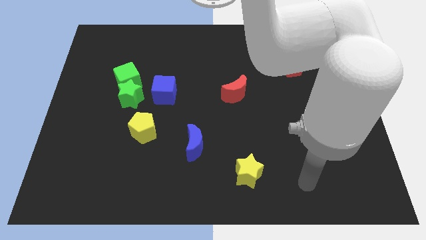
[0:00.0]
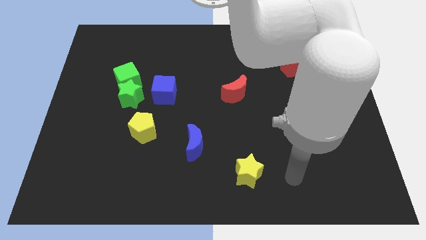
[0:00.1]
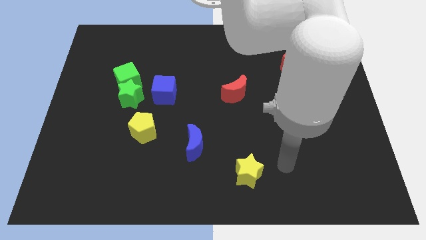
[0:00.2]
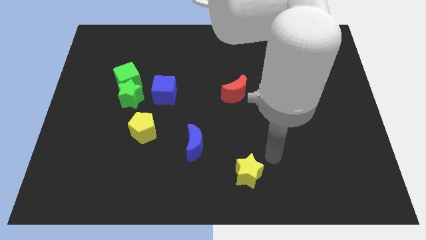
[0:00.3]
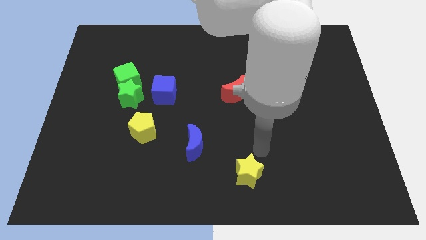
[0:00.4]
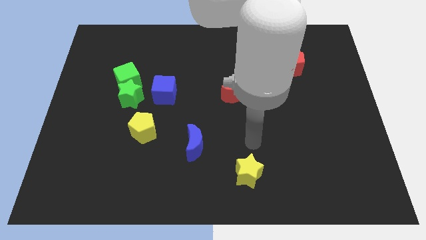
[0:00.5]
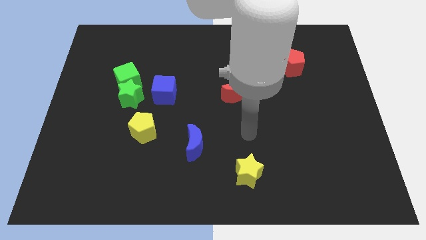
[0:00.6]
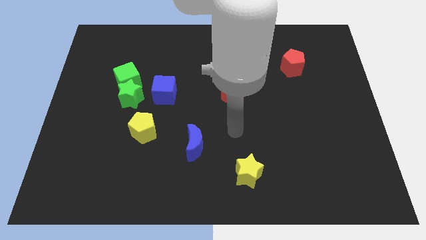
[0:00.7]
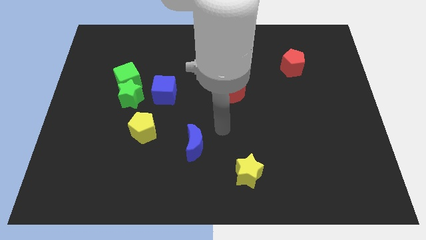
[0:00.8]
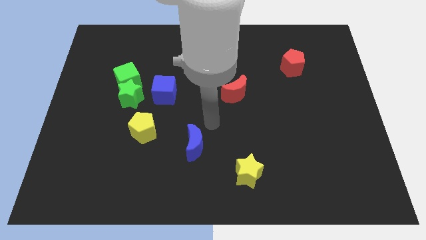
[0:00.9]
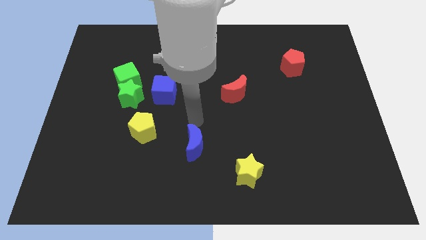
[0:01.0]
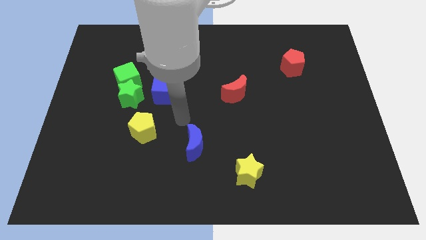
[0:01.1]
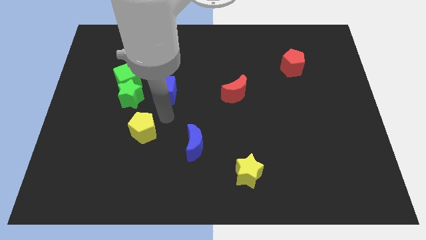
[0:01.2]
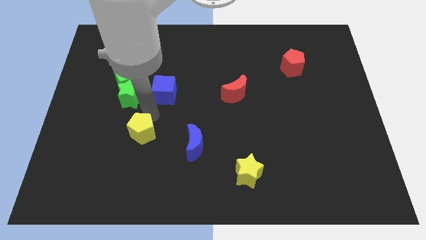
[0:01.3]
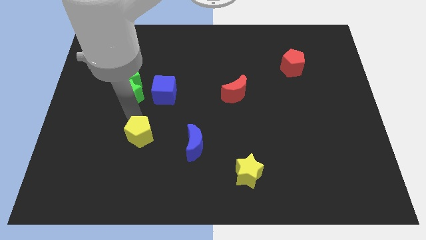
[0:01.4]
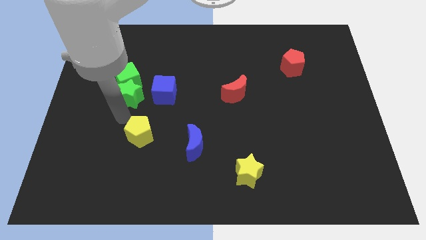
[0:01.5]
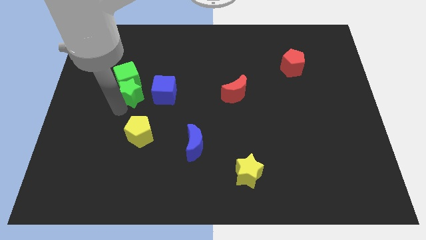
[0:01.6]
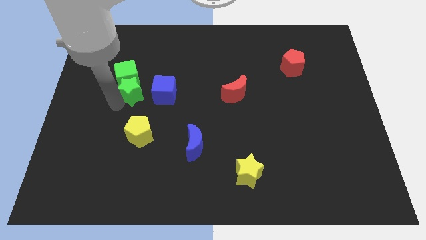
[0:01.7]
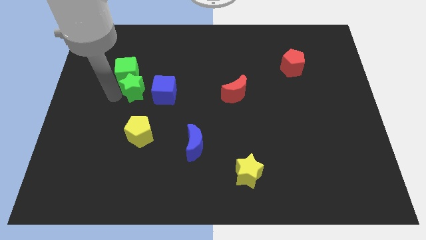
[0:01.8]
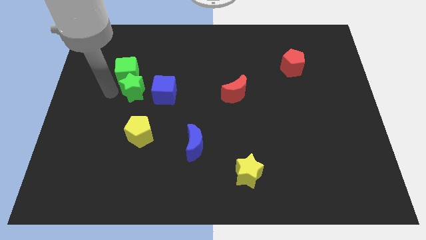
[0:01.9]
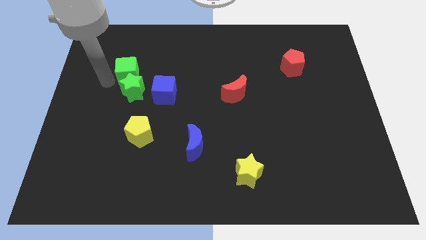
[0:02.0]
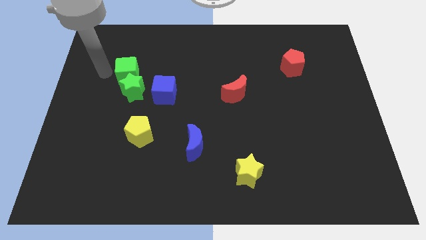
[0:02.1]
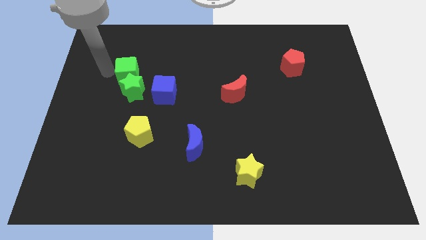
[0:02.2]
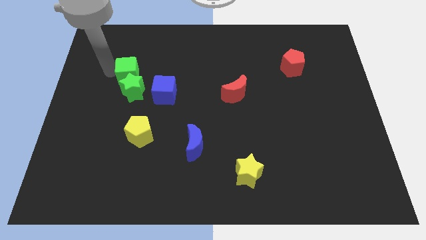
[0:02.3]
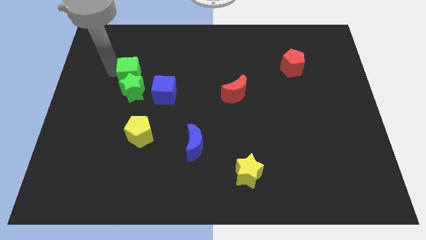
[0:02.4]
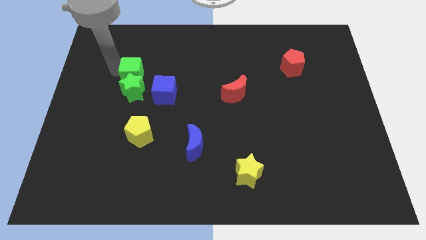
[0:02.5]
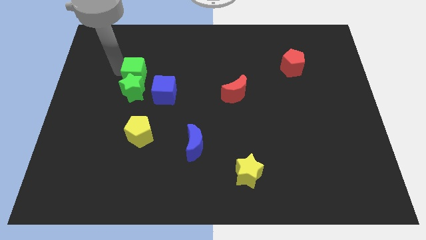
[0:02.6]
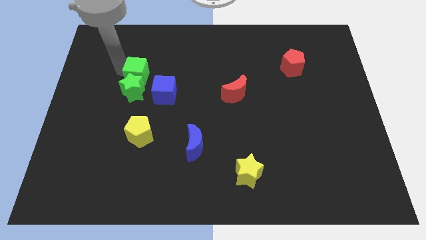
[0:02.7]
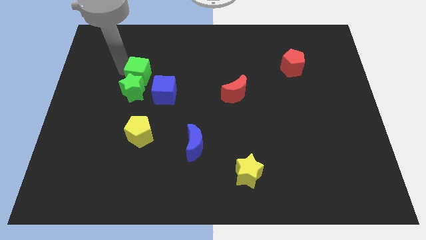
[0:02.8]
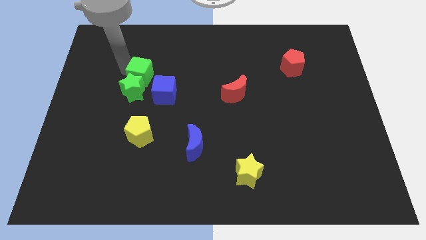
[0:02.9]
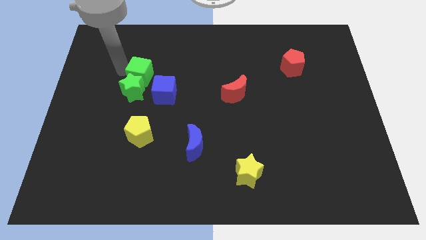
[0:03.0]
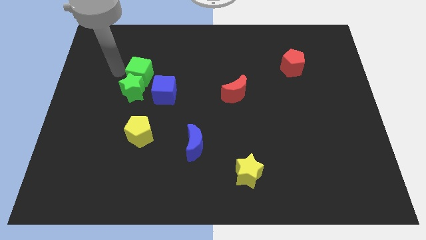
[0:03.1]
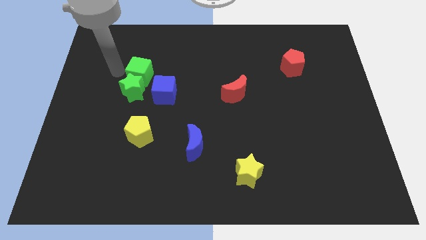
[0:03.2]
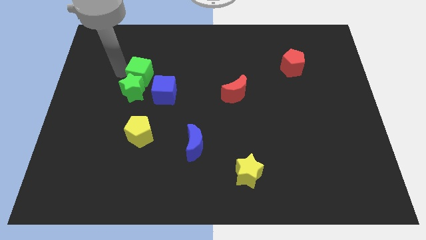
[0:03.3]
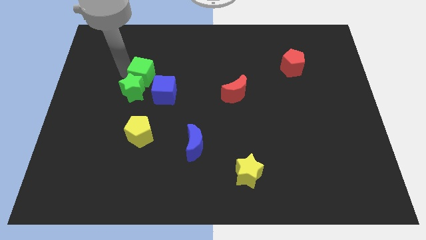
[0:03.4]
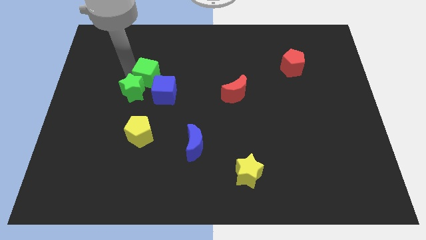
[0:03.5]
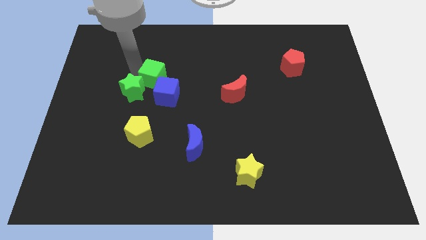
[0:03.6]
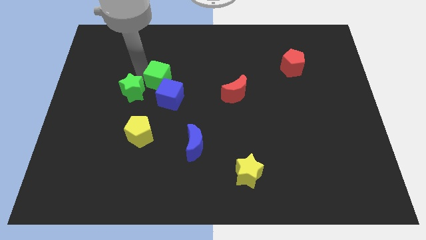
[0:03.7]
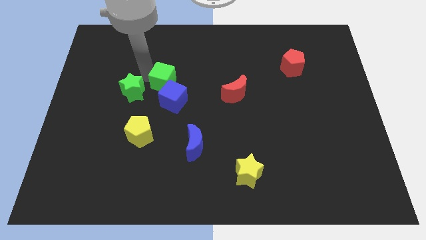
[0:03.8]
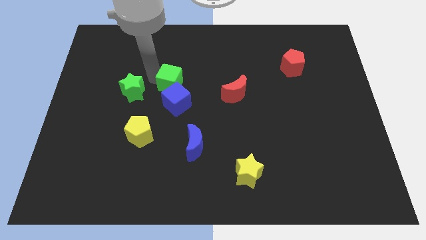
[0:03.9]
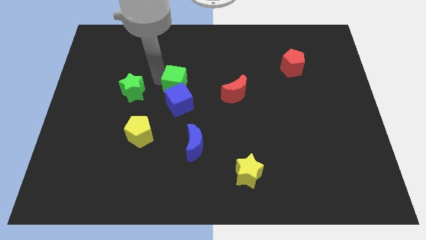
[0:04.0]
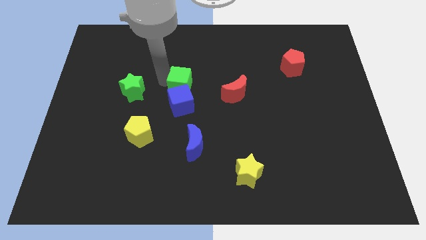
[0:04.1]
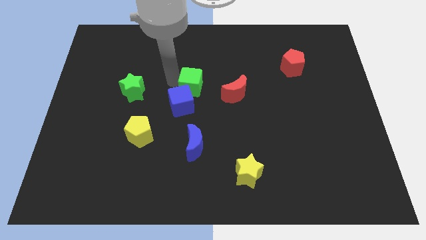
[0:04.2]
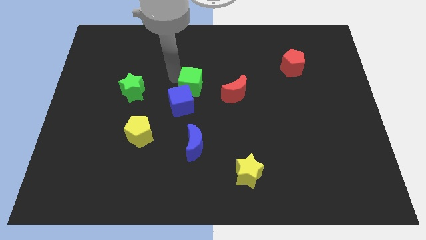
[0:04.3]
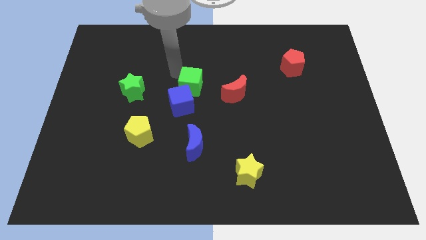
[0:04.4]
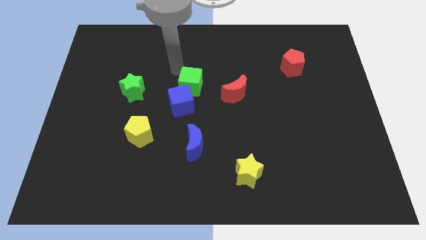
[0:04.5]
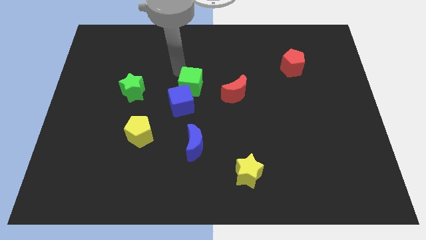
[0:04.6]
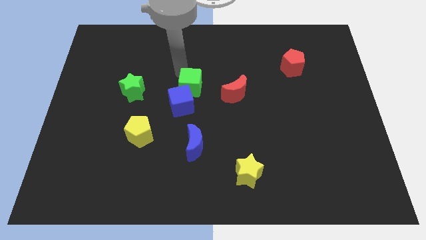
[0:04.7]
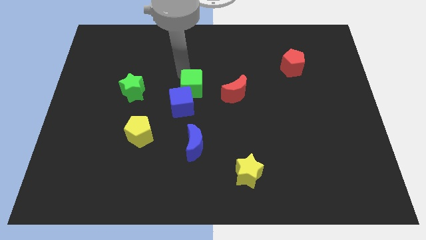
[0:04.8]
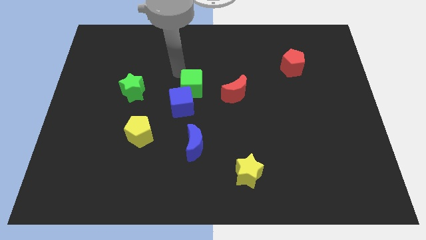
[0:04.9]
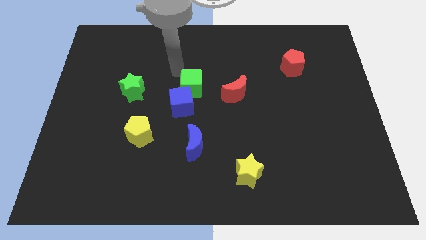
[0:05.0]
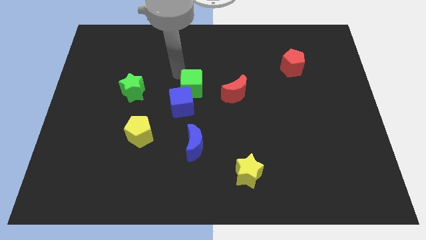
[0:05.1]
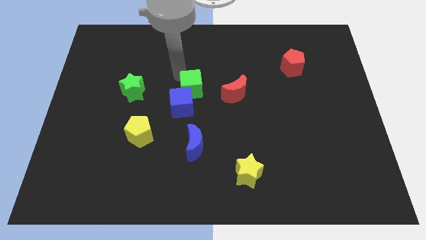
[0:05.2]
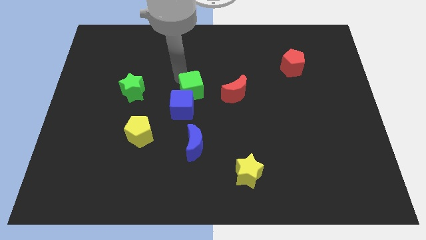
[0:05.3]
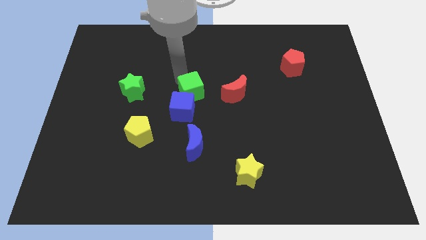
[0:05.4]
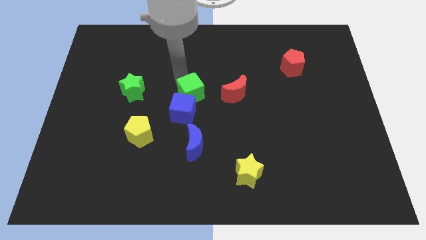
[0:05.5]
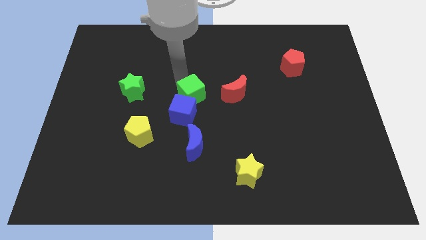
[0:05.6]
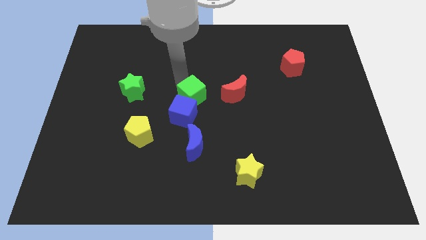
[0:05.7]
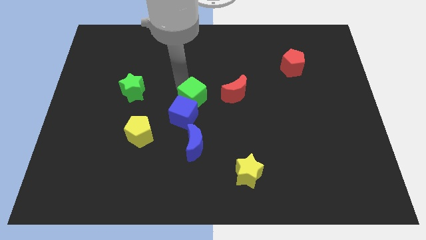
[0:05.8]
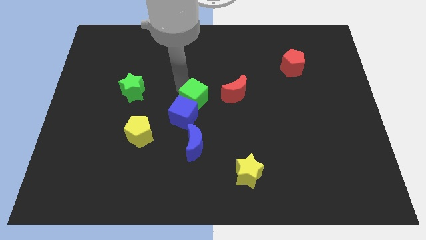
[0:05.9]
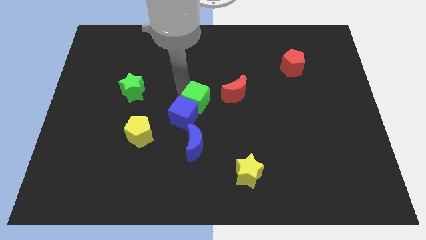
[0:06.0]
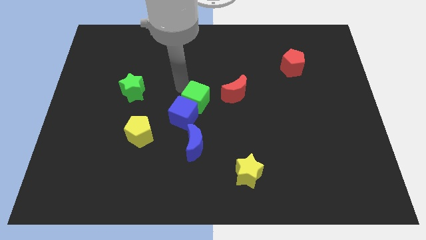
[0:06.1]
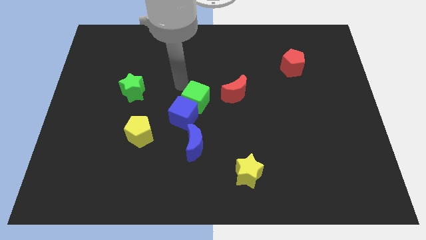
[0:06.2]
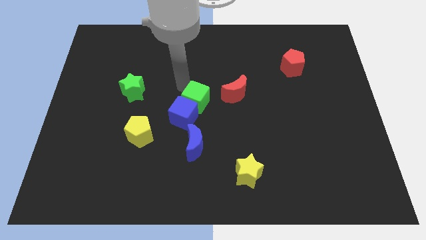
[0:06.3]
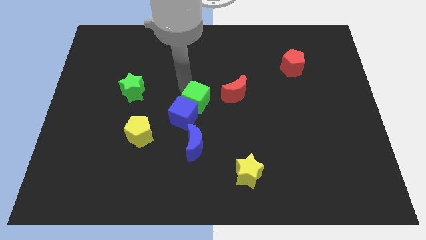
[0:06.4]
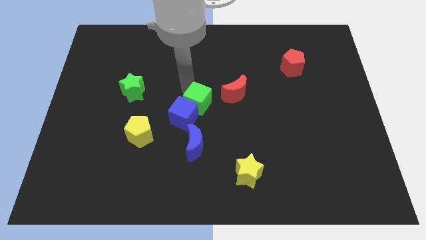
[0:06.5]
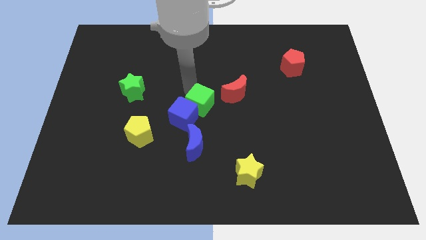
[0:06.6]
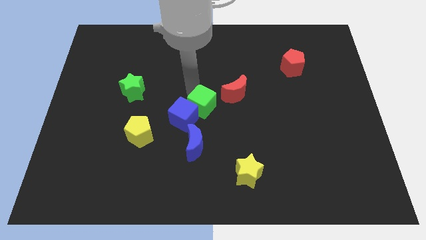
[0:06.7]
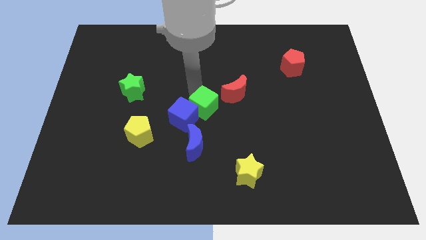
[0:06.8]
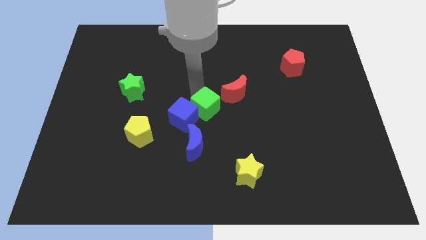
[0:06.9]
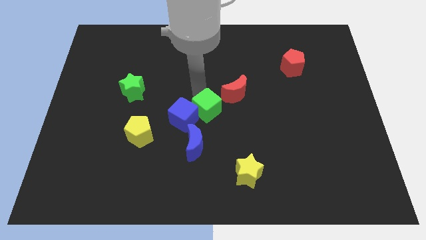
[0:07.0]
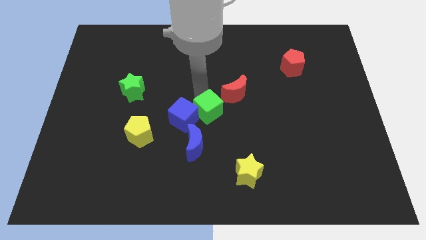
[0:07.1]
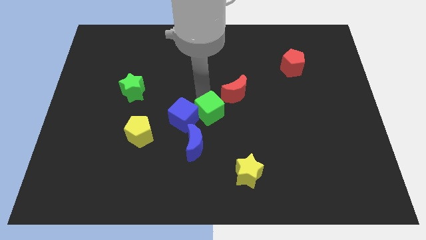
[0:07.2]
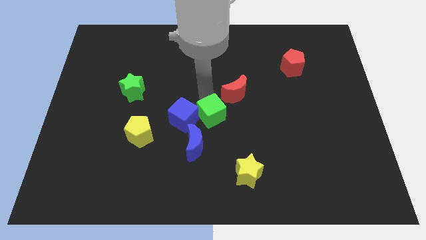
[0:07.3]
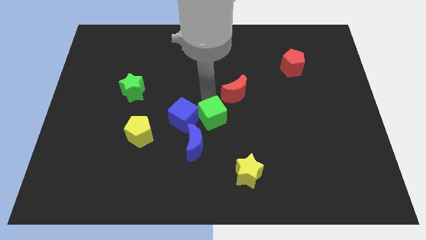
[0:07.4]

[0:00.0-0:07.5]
slide the green cube downwards and right diagonally

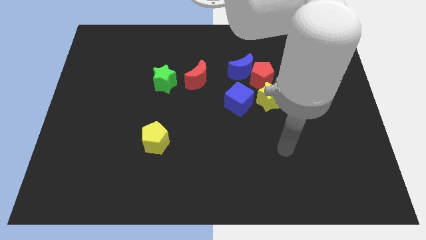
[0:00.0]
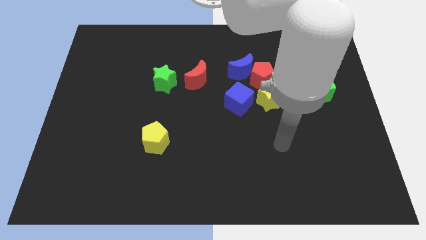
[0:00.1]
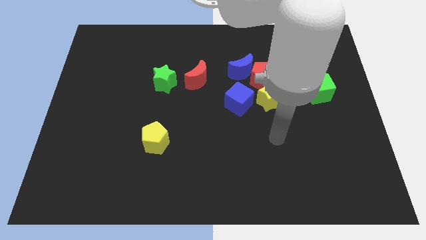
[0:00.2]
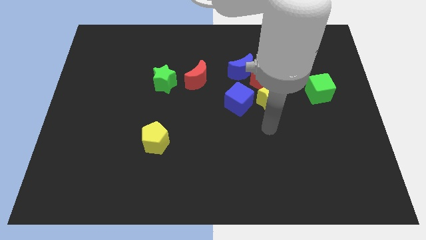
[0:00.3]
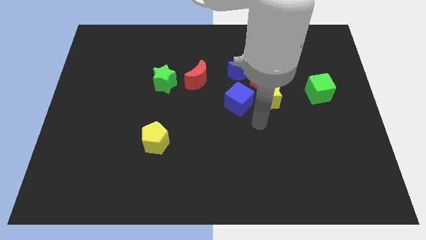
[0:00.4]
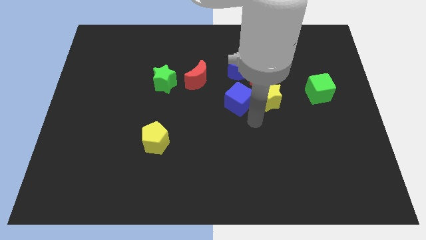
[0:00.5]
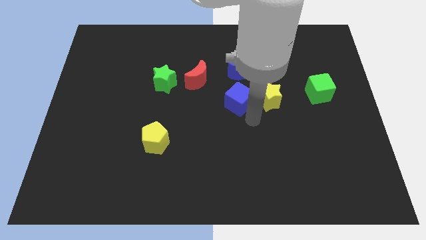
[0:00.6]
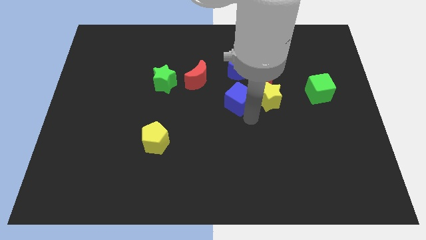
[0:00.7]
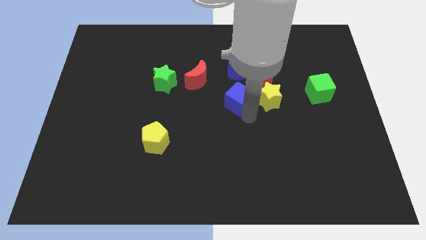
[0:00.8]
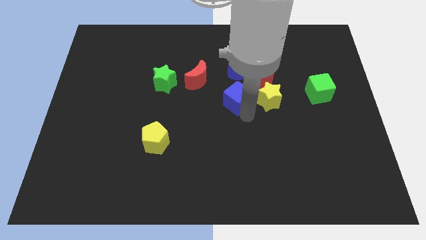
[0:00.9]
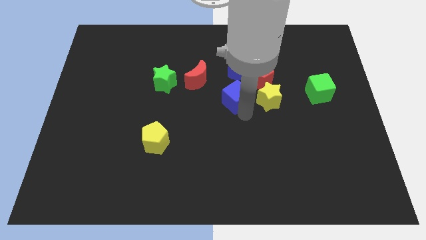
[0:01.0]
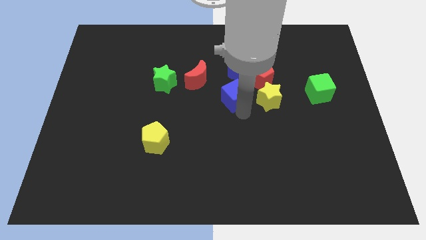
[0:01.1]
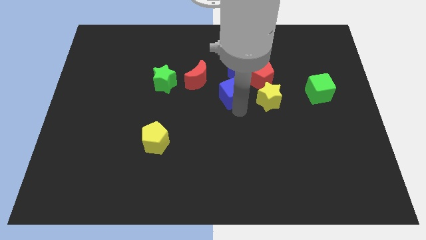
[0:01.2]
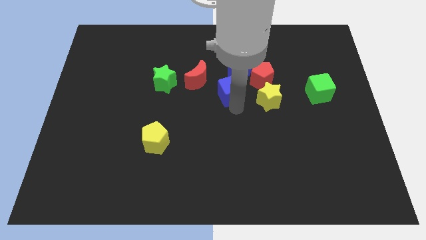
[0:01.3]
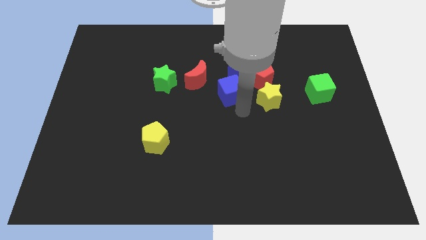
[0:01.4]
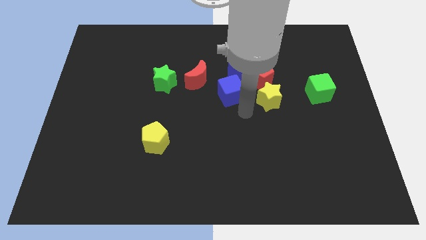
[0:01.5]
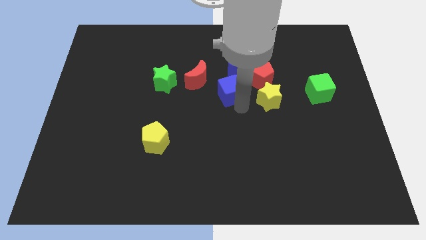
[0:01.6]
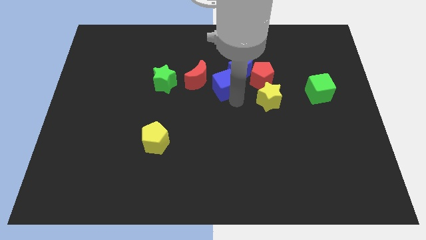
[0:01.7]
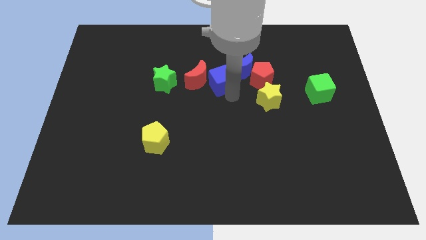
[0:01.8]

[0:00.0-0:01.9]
move the blue cube slightly up and left
